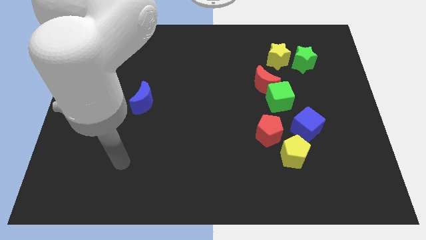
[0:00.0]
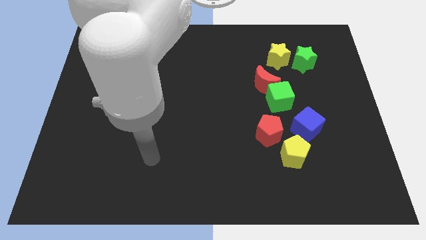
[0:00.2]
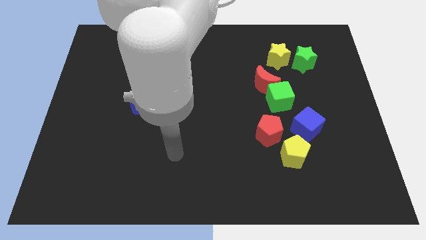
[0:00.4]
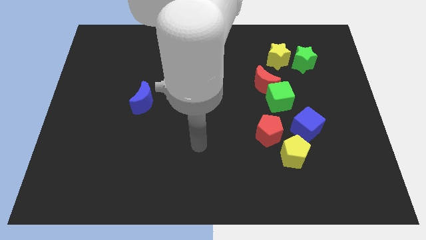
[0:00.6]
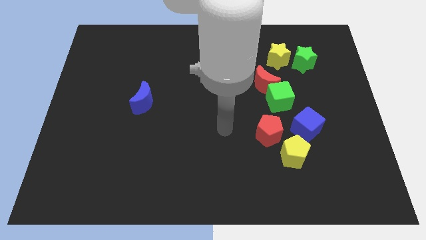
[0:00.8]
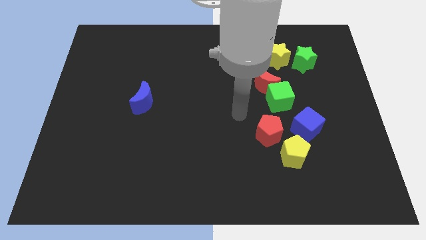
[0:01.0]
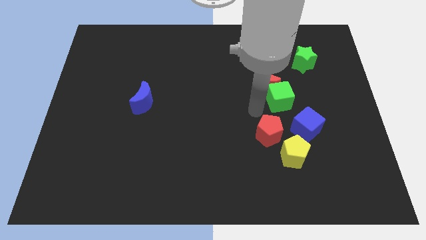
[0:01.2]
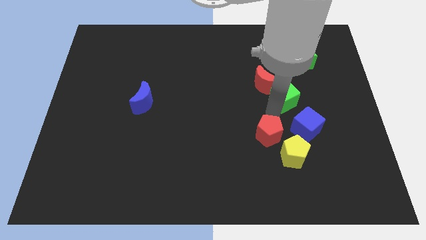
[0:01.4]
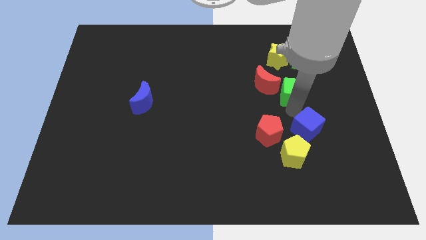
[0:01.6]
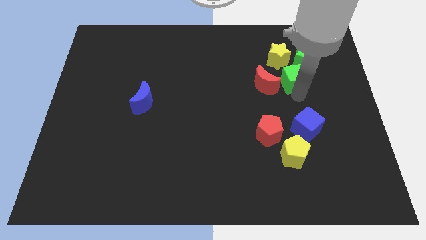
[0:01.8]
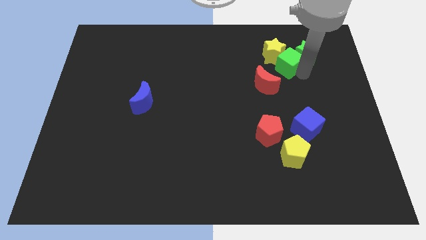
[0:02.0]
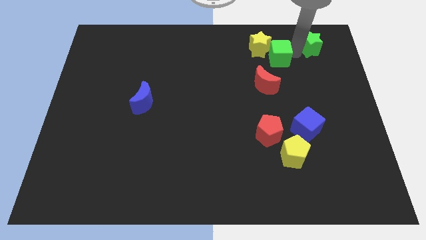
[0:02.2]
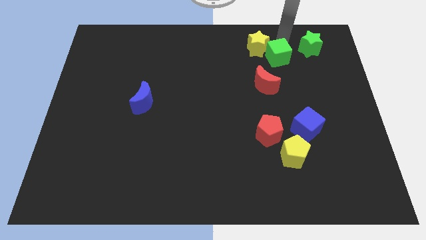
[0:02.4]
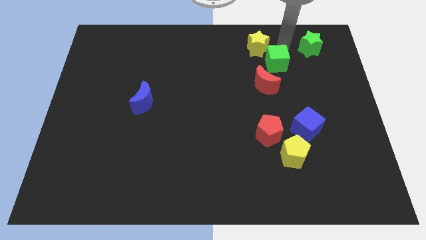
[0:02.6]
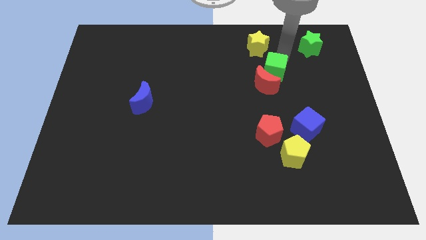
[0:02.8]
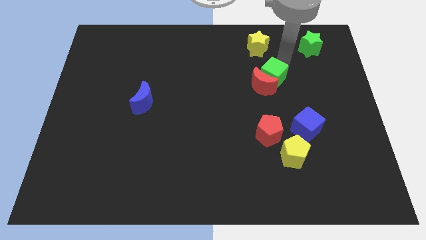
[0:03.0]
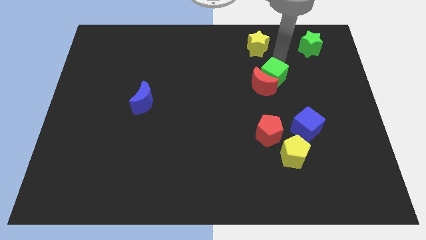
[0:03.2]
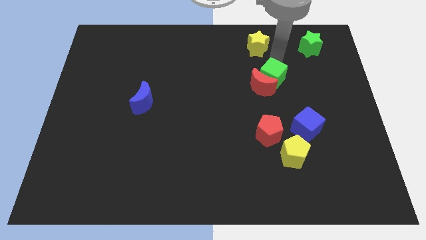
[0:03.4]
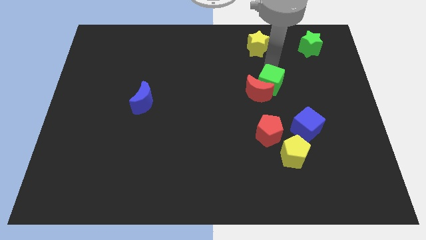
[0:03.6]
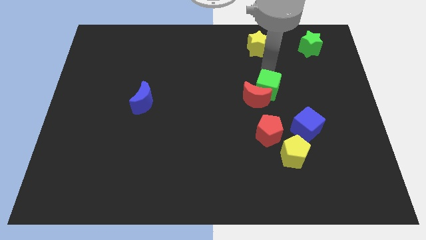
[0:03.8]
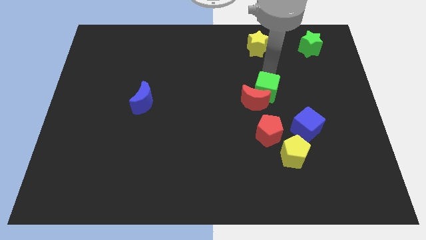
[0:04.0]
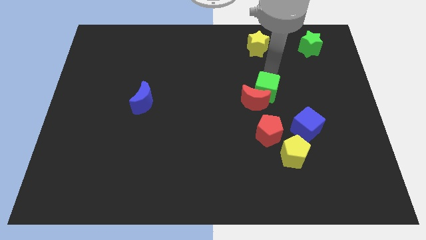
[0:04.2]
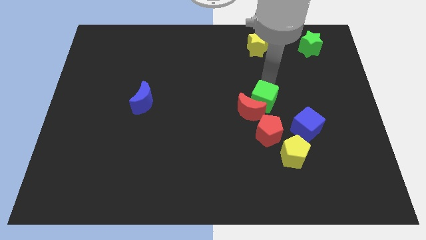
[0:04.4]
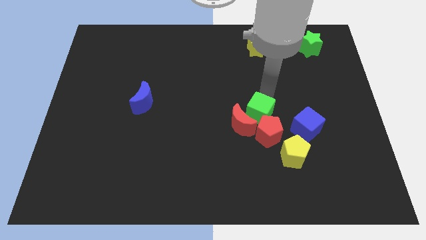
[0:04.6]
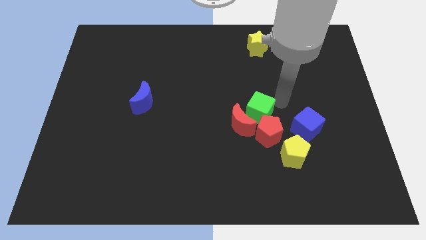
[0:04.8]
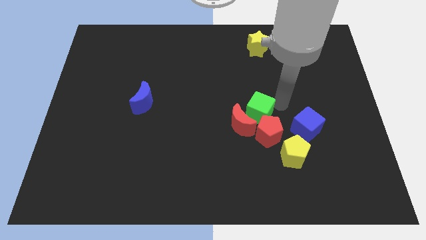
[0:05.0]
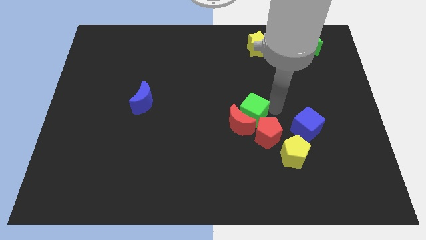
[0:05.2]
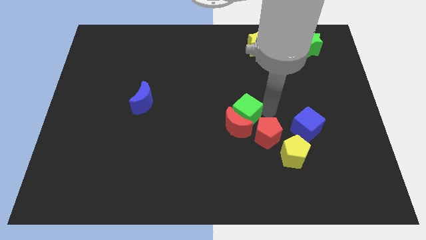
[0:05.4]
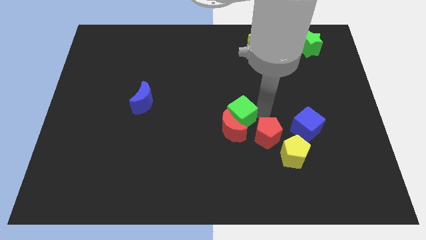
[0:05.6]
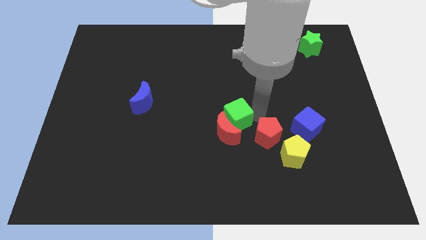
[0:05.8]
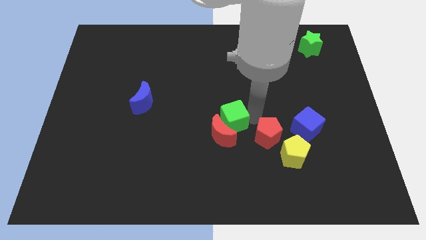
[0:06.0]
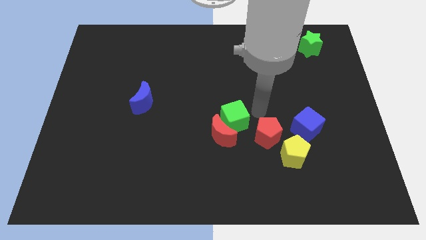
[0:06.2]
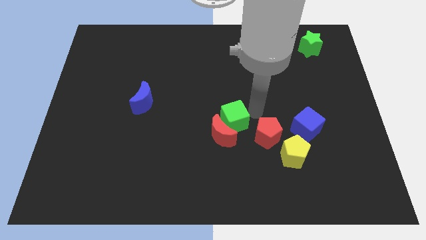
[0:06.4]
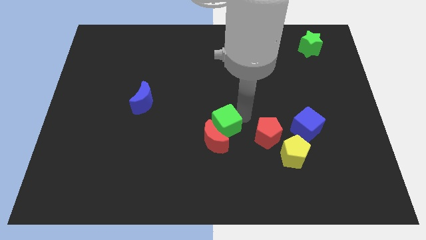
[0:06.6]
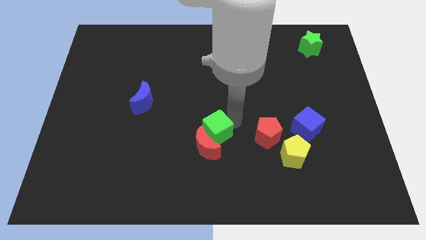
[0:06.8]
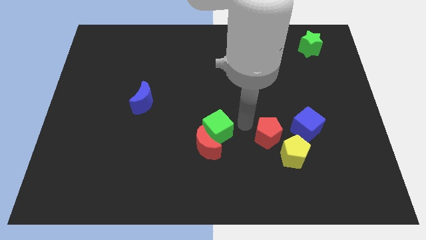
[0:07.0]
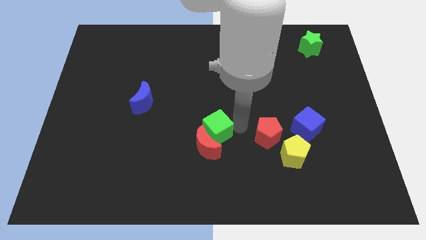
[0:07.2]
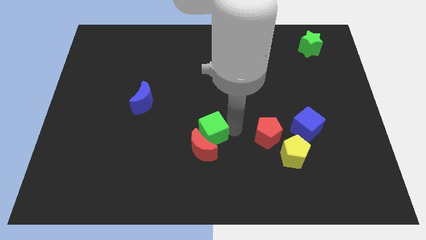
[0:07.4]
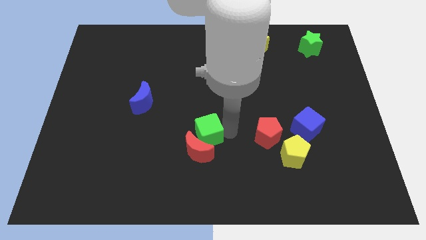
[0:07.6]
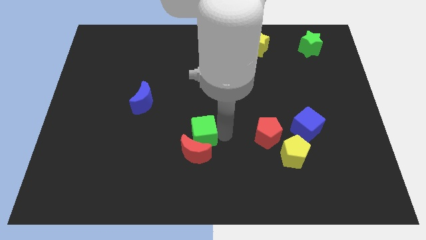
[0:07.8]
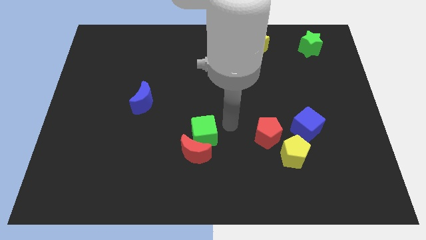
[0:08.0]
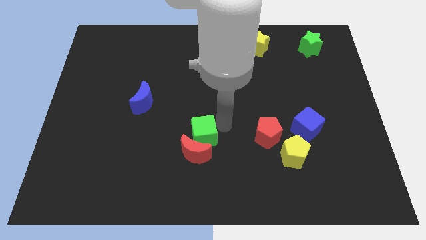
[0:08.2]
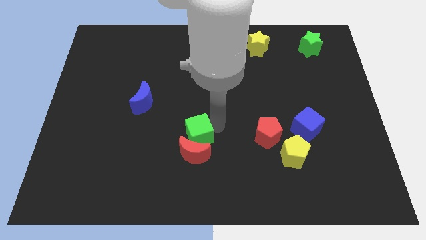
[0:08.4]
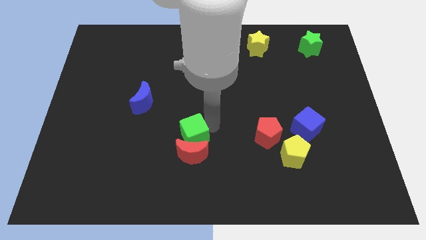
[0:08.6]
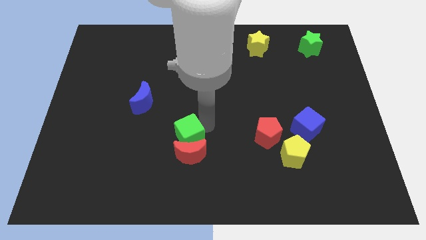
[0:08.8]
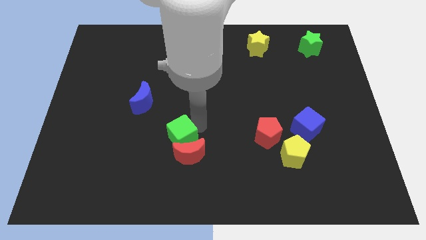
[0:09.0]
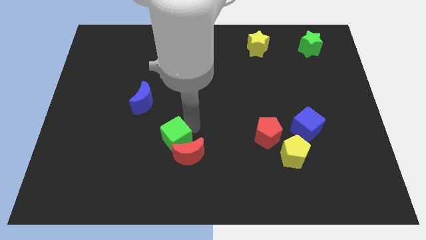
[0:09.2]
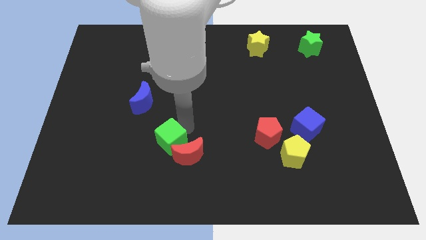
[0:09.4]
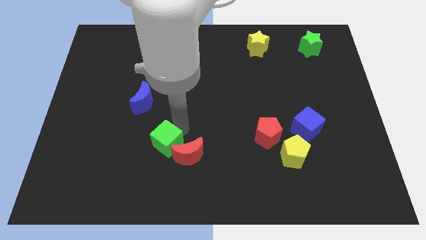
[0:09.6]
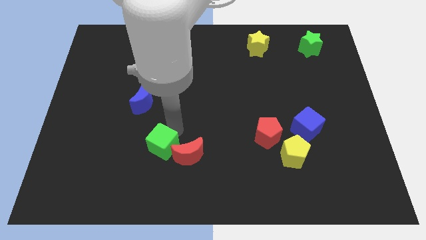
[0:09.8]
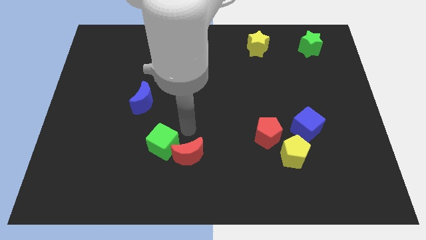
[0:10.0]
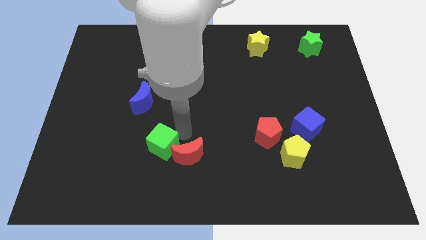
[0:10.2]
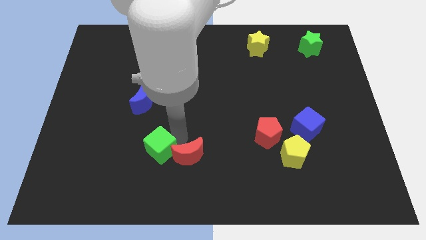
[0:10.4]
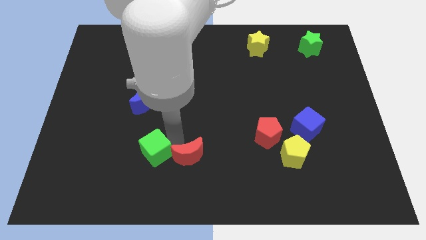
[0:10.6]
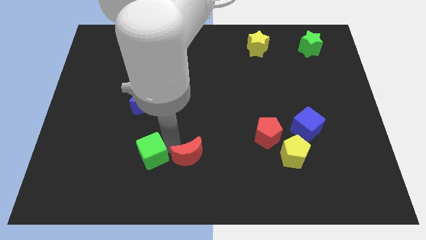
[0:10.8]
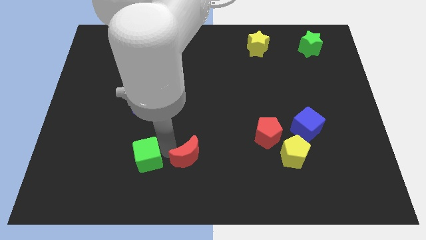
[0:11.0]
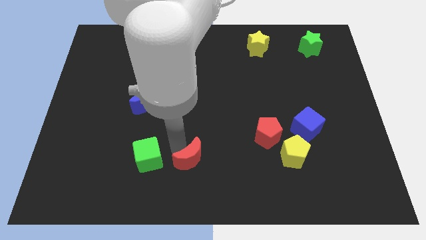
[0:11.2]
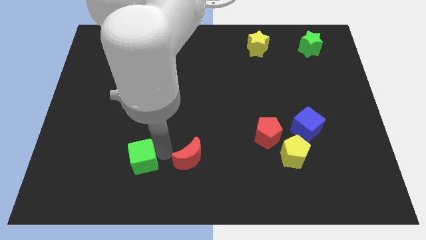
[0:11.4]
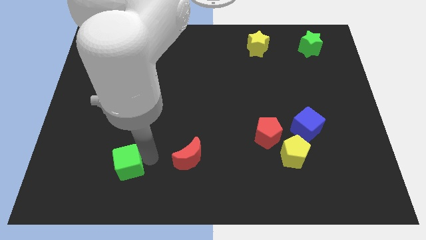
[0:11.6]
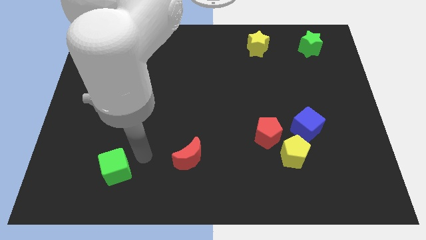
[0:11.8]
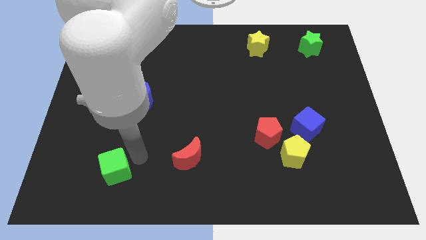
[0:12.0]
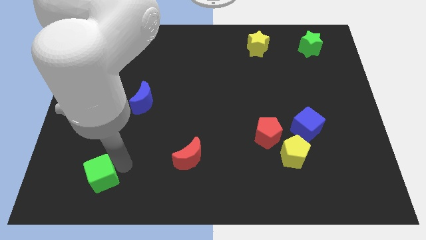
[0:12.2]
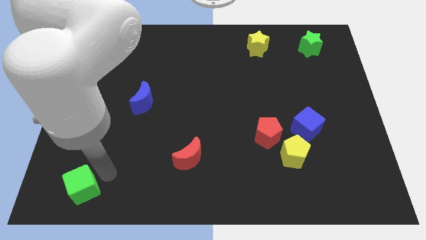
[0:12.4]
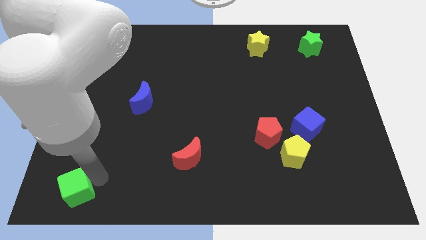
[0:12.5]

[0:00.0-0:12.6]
push the green cube to the bottom left of the board
